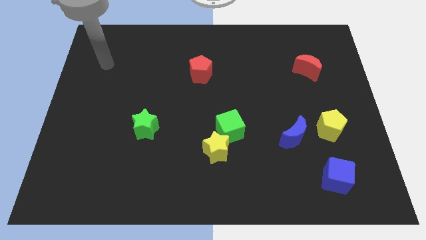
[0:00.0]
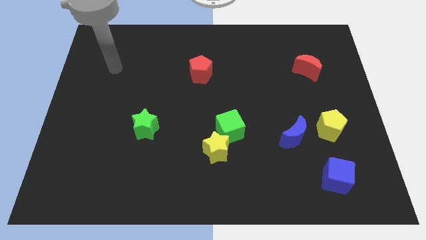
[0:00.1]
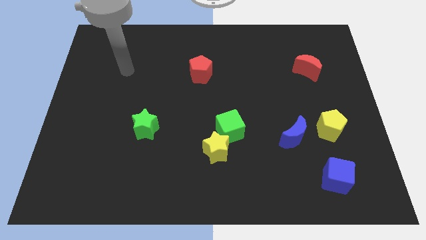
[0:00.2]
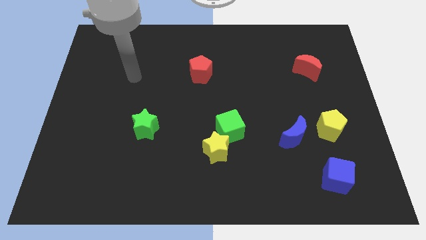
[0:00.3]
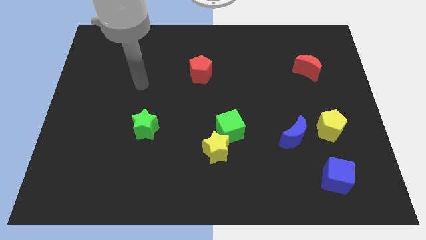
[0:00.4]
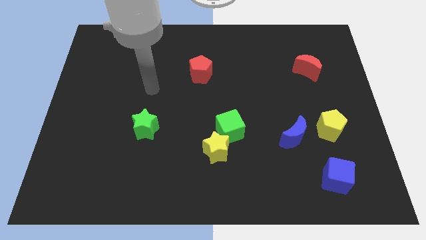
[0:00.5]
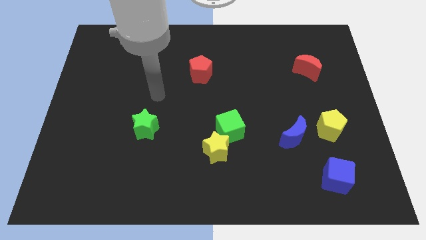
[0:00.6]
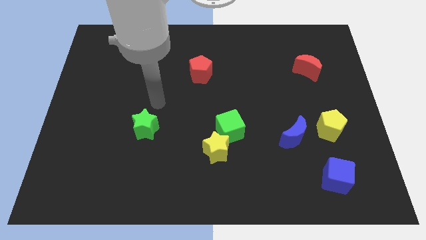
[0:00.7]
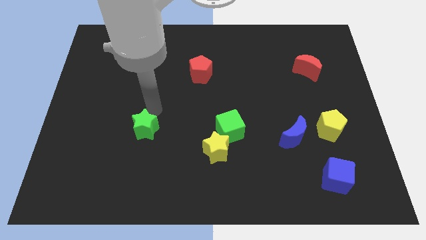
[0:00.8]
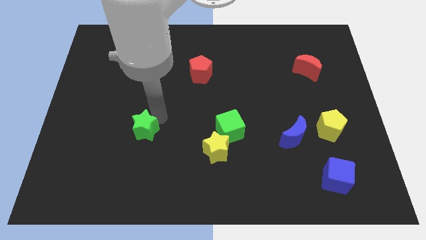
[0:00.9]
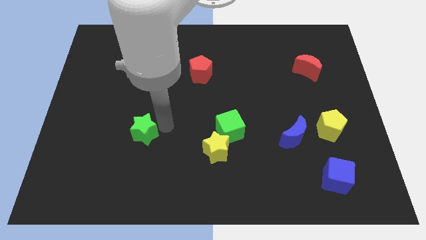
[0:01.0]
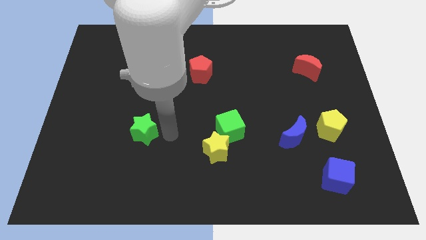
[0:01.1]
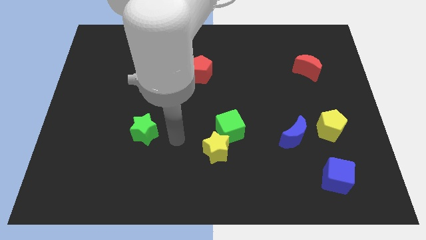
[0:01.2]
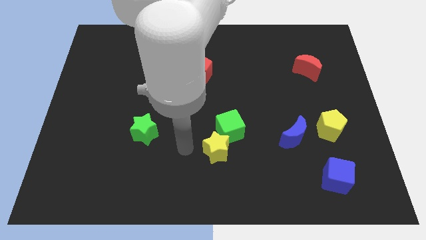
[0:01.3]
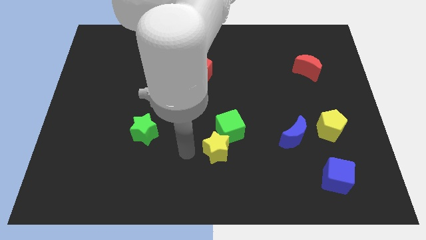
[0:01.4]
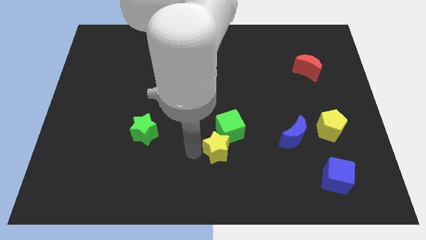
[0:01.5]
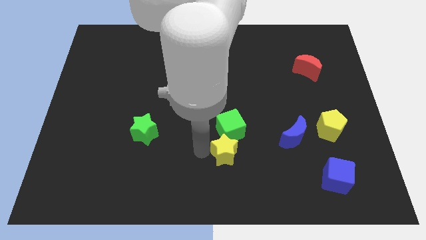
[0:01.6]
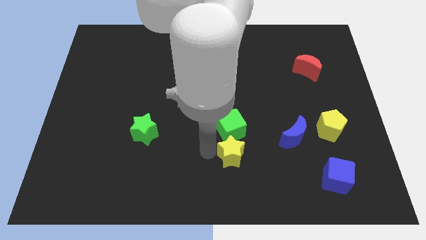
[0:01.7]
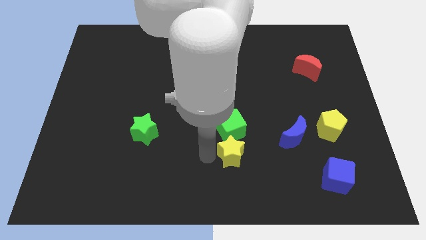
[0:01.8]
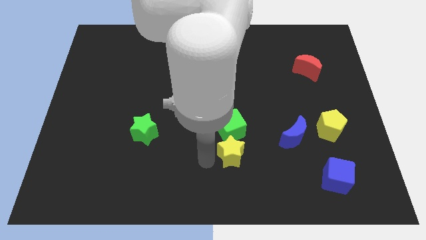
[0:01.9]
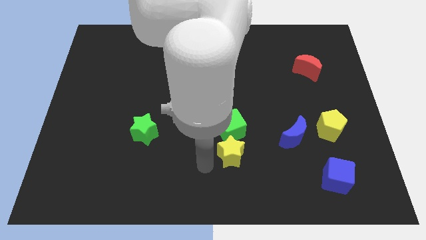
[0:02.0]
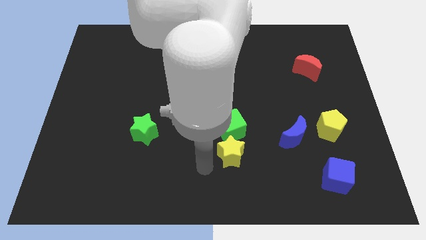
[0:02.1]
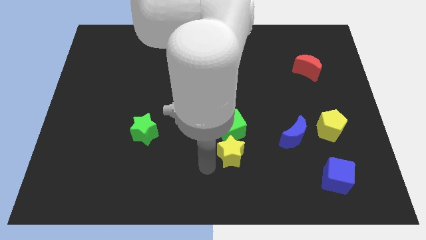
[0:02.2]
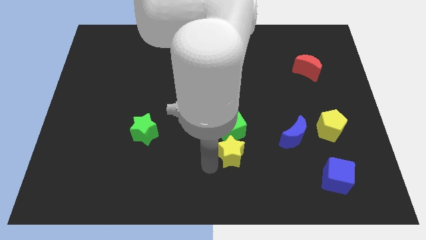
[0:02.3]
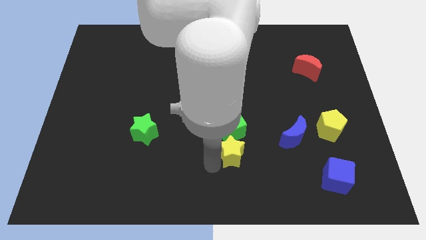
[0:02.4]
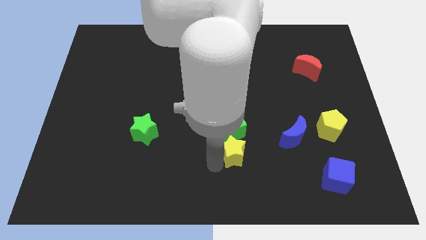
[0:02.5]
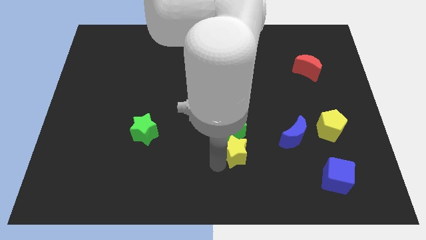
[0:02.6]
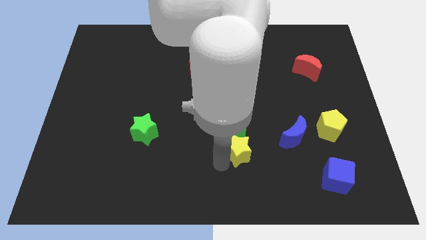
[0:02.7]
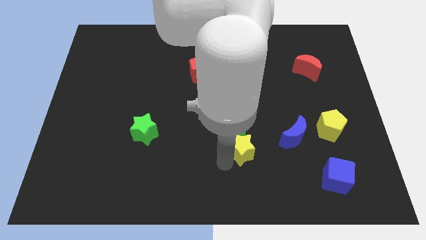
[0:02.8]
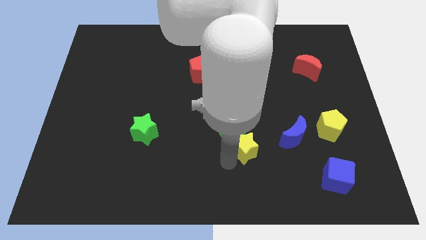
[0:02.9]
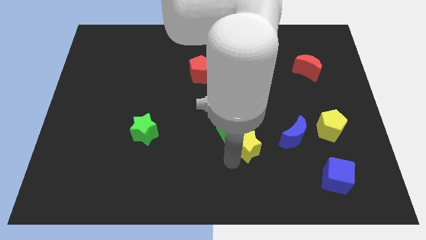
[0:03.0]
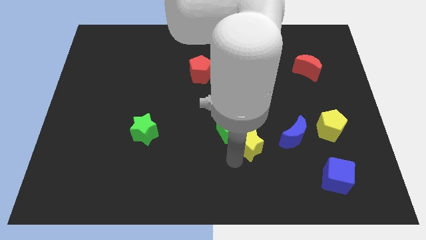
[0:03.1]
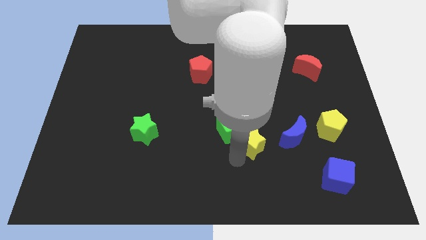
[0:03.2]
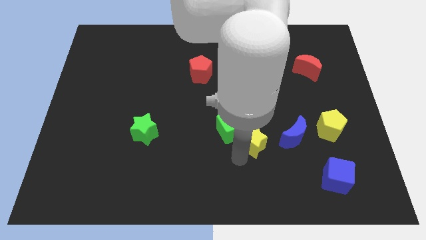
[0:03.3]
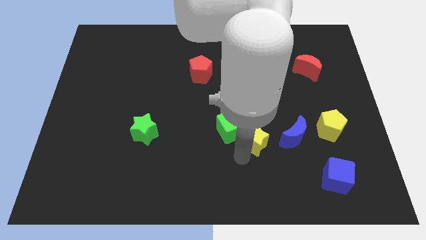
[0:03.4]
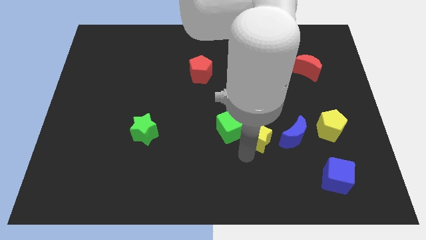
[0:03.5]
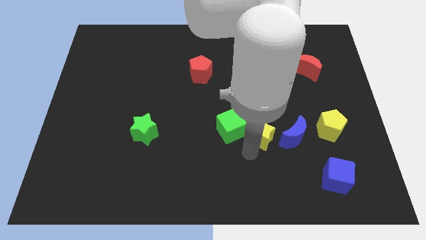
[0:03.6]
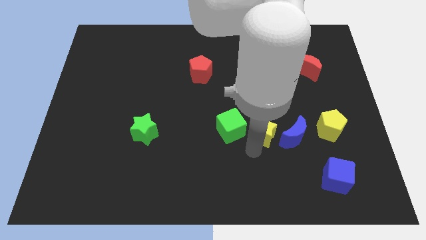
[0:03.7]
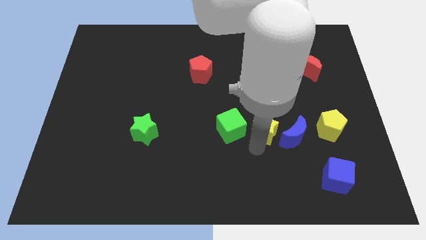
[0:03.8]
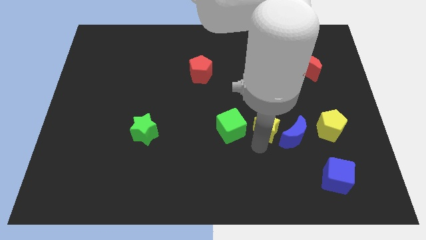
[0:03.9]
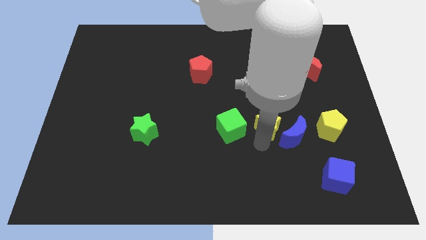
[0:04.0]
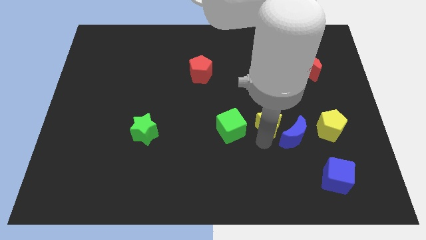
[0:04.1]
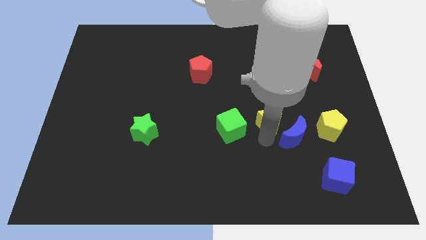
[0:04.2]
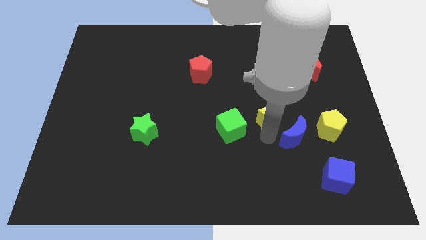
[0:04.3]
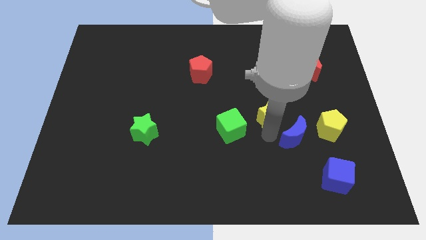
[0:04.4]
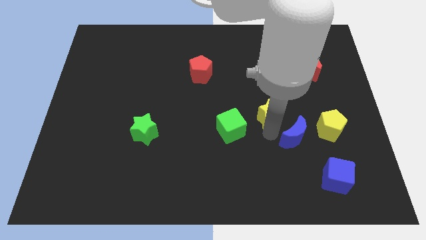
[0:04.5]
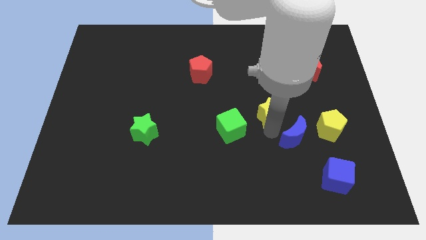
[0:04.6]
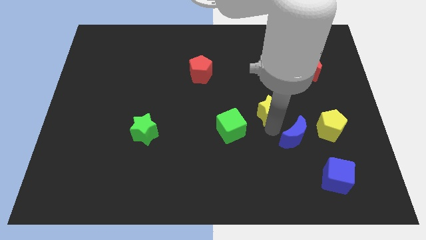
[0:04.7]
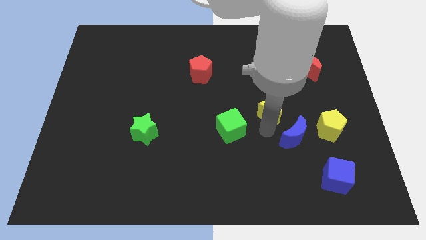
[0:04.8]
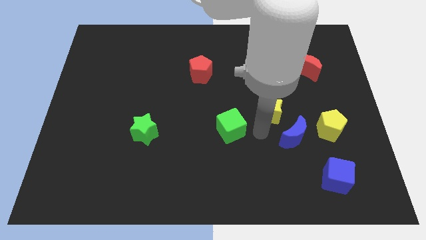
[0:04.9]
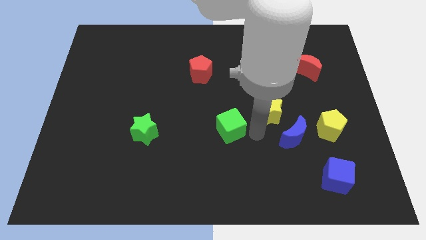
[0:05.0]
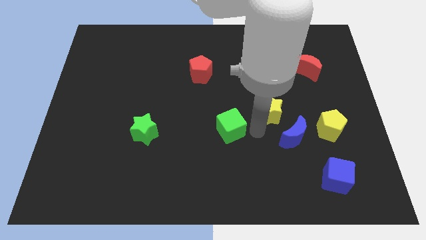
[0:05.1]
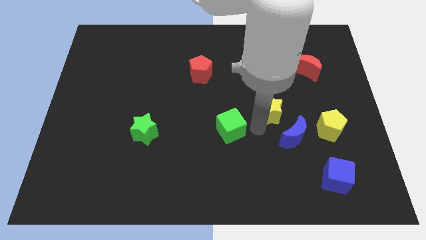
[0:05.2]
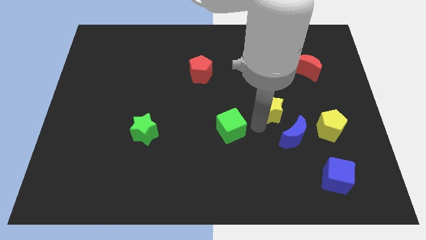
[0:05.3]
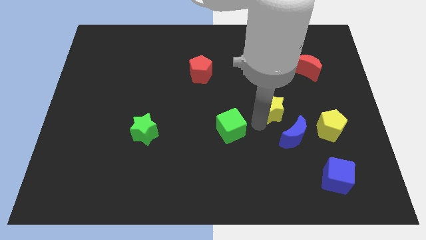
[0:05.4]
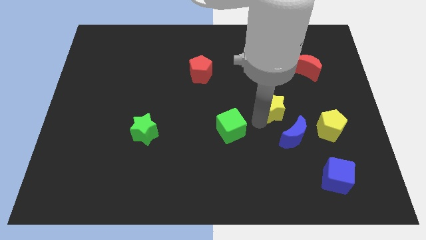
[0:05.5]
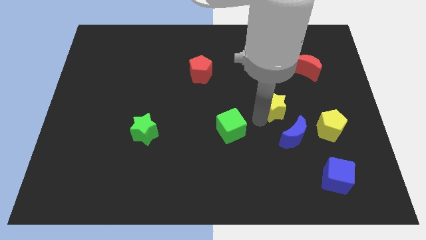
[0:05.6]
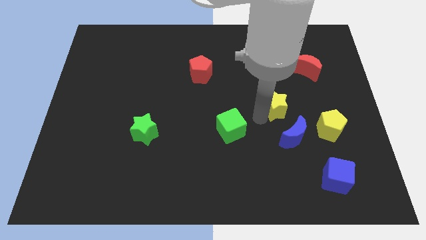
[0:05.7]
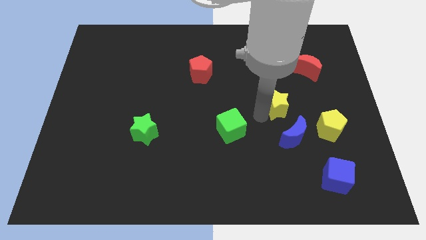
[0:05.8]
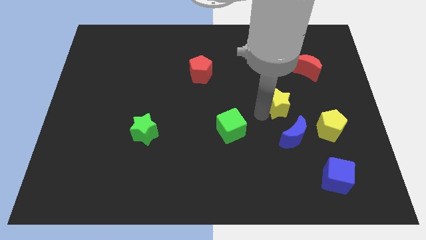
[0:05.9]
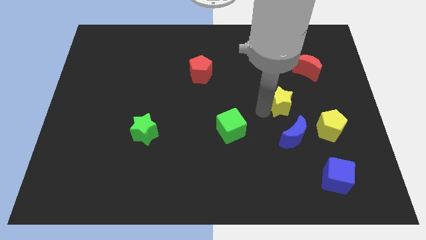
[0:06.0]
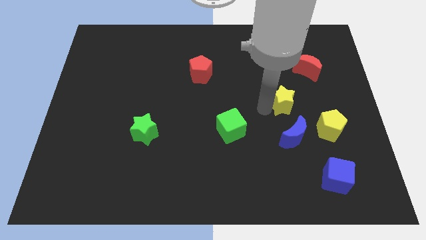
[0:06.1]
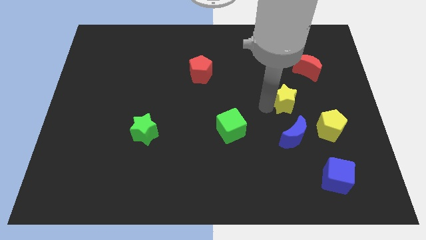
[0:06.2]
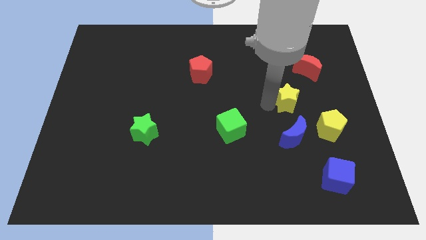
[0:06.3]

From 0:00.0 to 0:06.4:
put the yellow star to the bottom left side of the red moon
